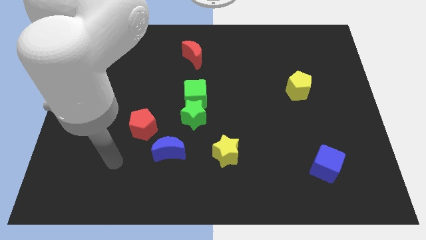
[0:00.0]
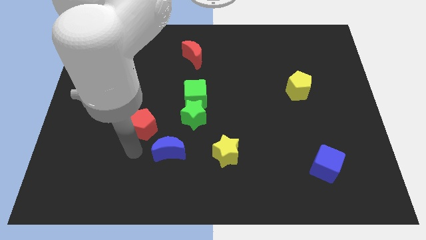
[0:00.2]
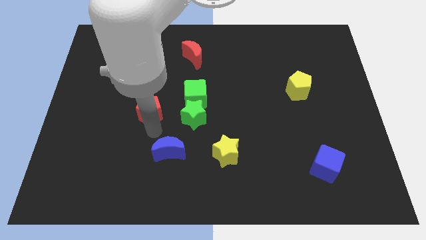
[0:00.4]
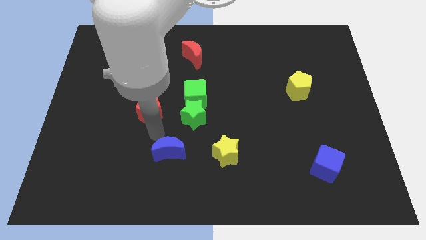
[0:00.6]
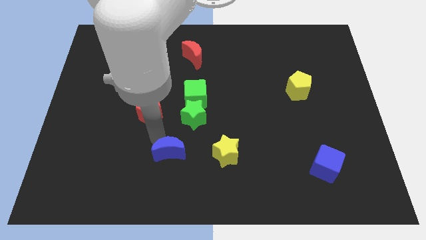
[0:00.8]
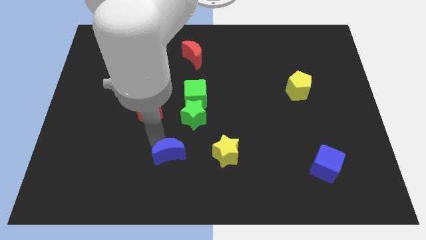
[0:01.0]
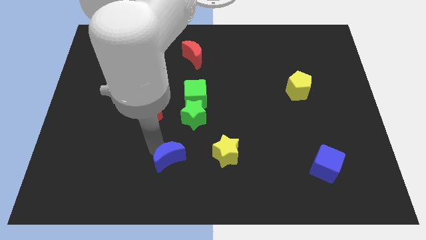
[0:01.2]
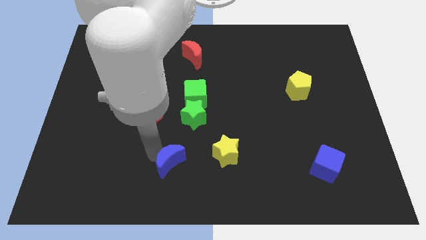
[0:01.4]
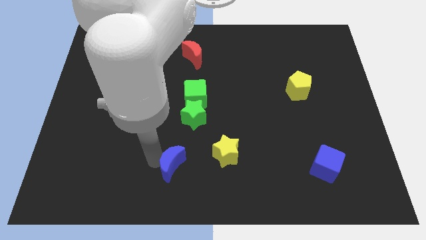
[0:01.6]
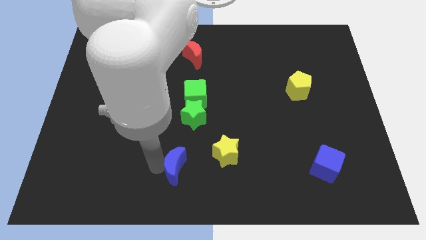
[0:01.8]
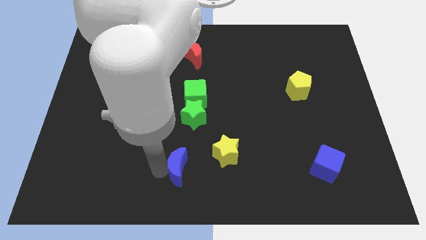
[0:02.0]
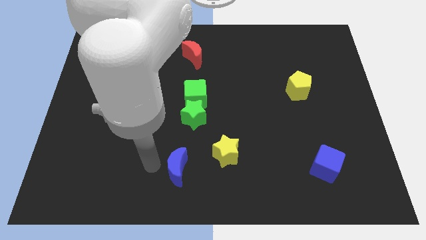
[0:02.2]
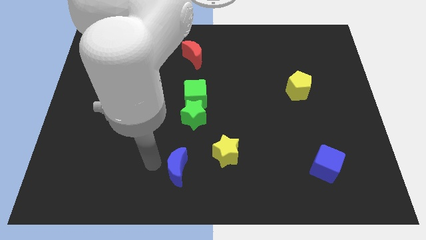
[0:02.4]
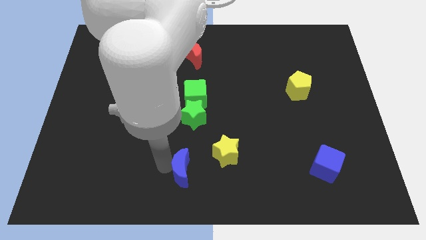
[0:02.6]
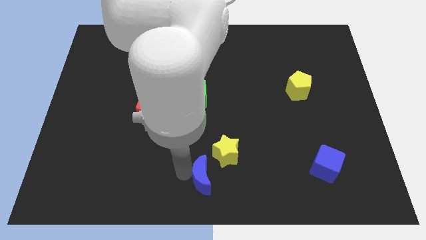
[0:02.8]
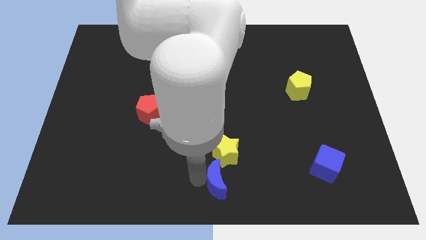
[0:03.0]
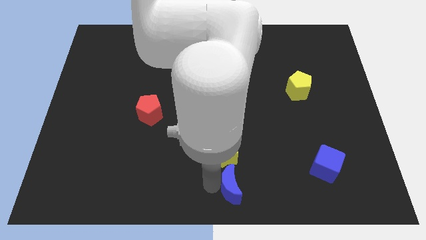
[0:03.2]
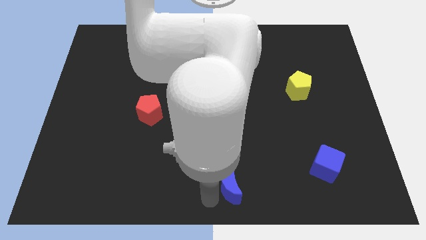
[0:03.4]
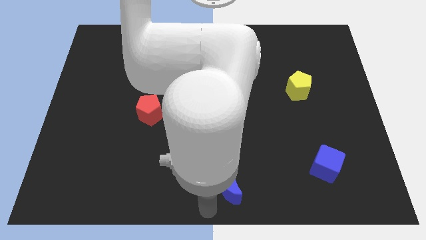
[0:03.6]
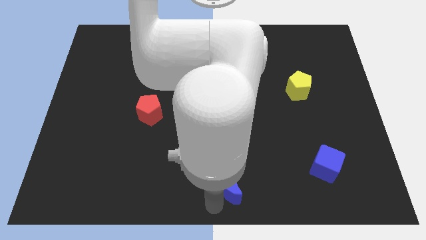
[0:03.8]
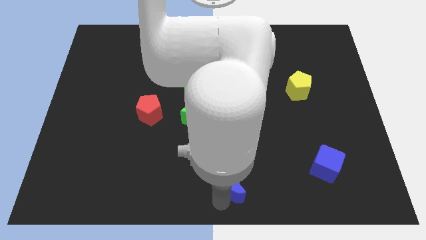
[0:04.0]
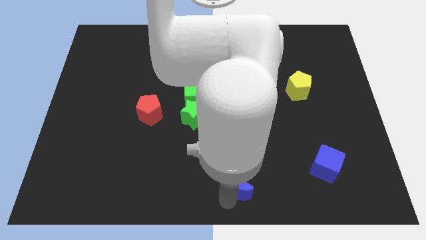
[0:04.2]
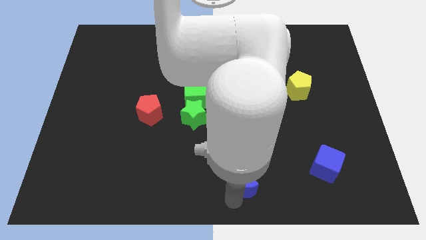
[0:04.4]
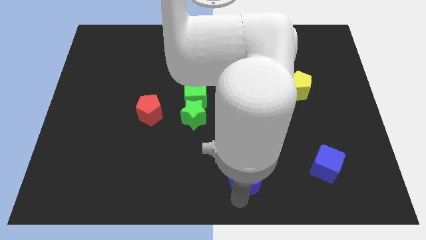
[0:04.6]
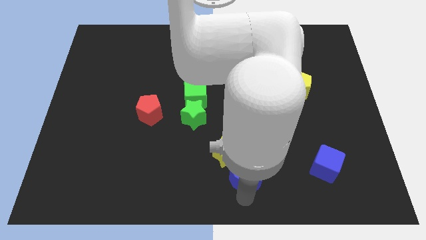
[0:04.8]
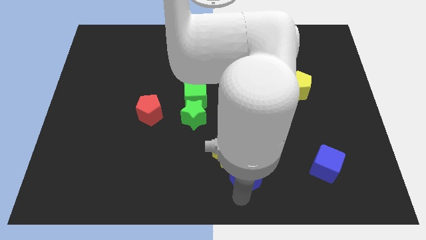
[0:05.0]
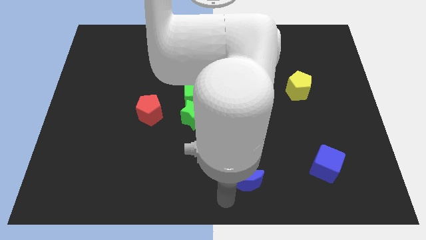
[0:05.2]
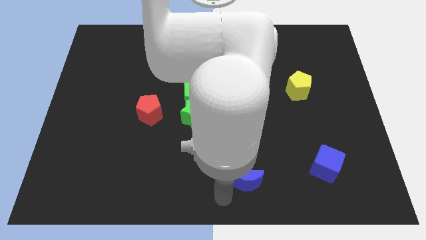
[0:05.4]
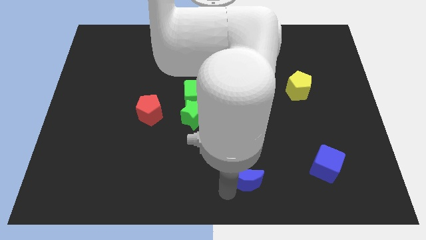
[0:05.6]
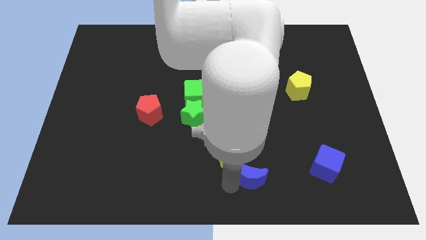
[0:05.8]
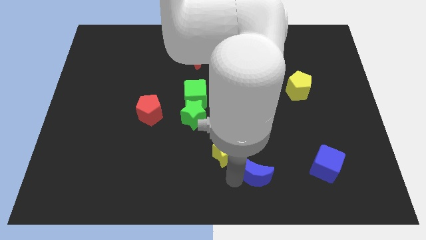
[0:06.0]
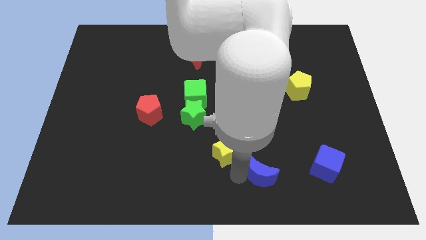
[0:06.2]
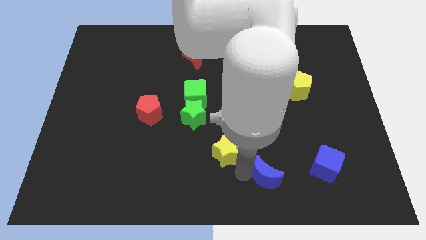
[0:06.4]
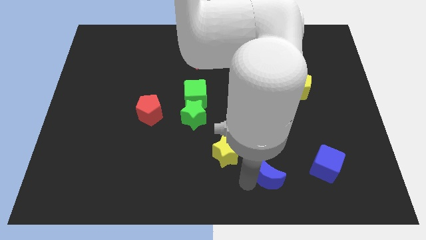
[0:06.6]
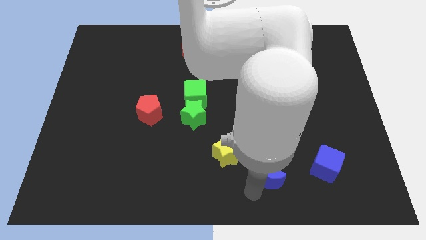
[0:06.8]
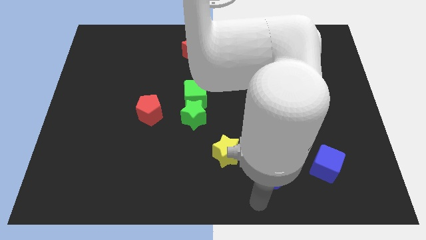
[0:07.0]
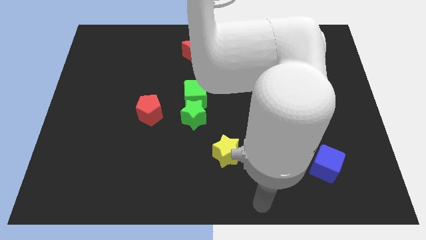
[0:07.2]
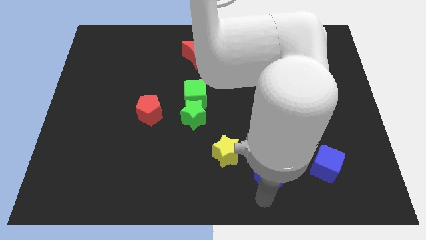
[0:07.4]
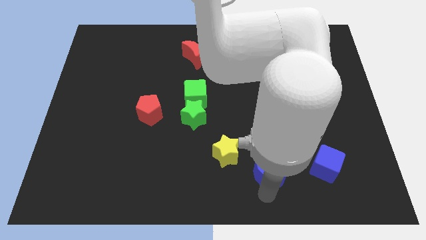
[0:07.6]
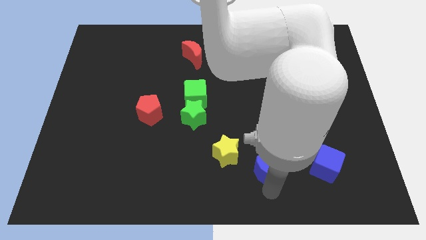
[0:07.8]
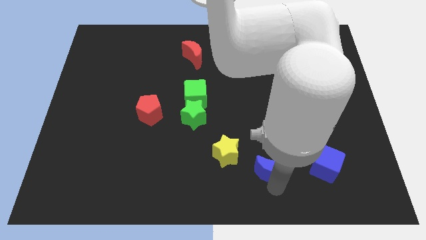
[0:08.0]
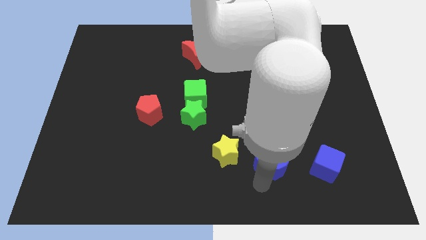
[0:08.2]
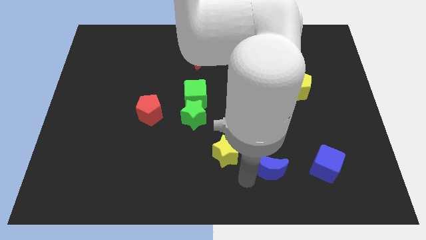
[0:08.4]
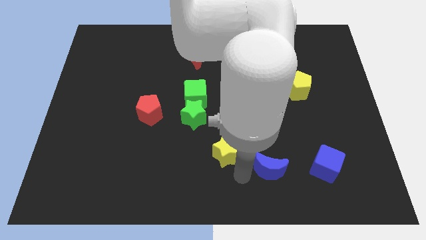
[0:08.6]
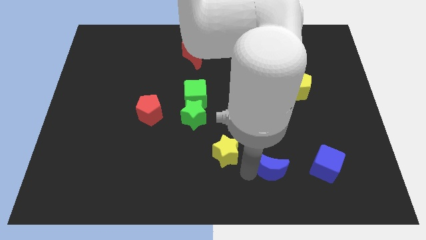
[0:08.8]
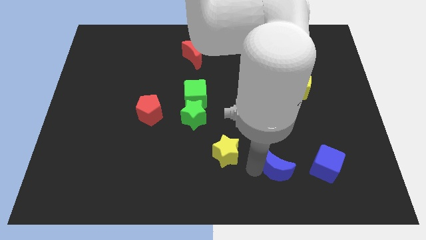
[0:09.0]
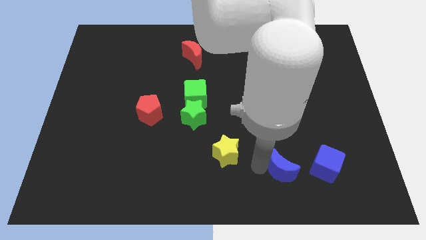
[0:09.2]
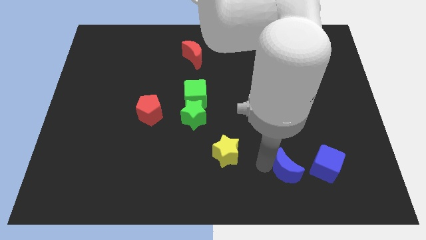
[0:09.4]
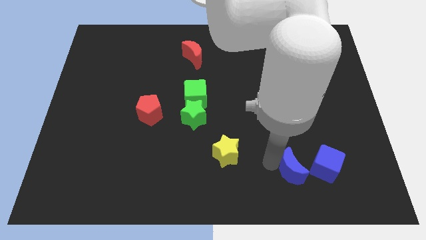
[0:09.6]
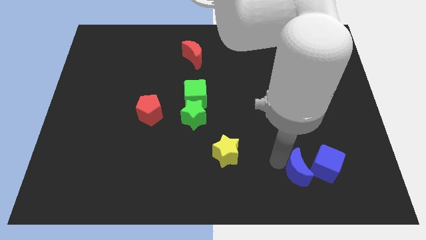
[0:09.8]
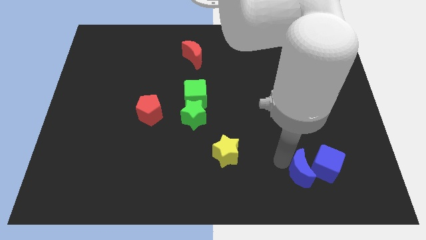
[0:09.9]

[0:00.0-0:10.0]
move the blue moon close to the blue cube

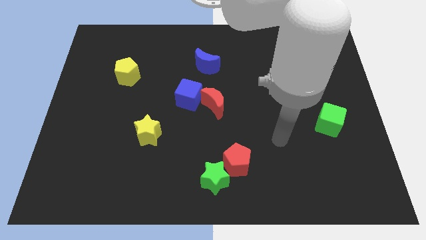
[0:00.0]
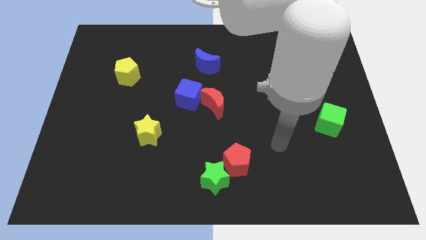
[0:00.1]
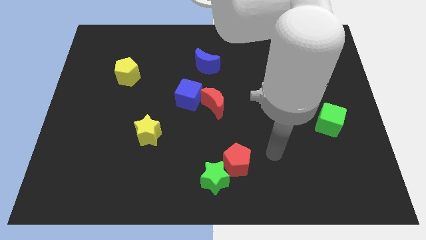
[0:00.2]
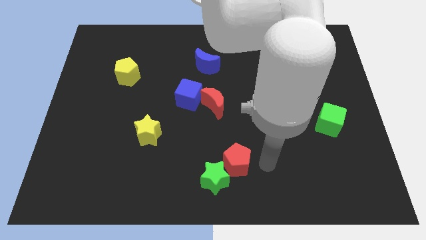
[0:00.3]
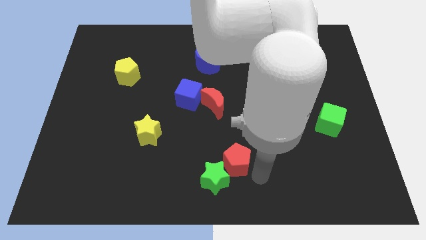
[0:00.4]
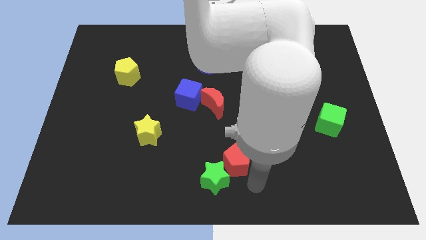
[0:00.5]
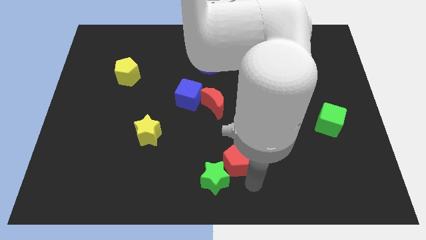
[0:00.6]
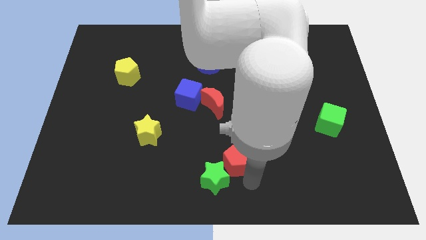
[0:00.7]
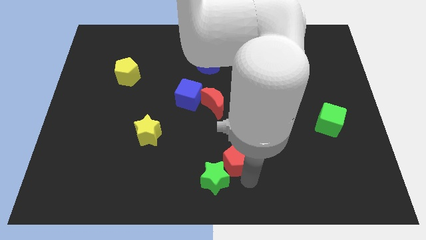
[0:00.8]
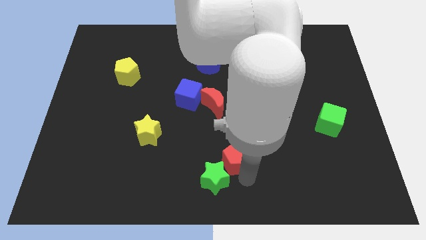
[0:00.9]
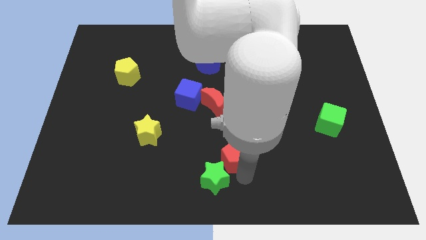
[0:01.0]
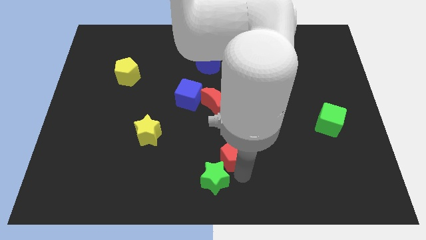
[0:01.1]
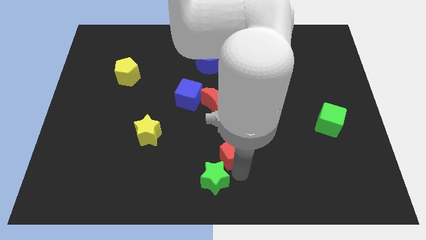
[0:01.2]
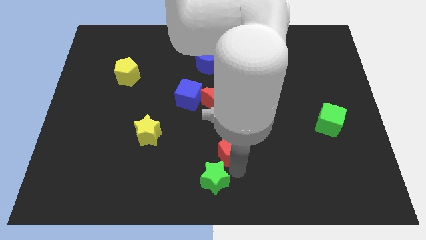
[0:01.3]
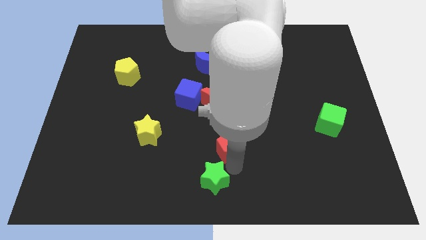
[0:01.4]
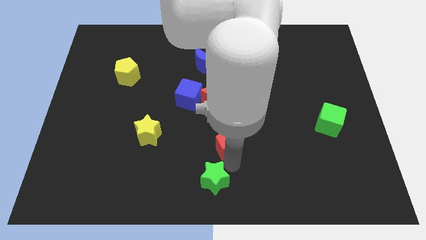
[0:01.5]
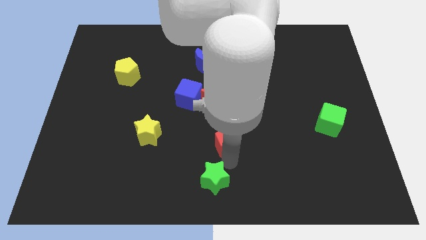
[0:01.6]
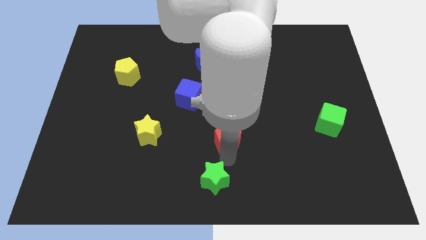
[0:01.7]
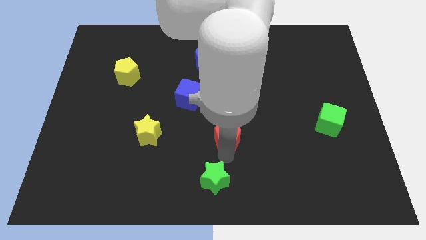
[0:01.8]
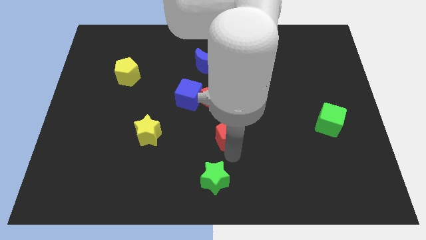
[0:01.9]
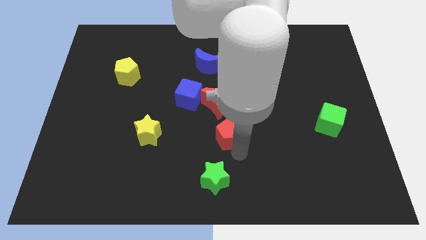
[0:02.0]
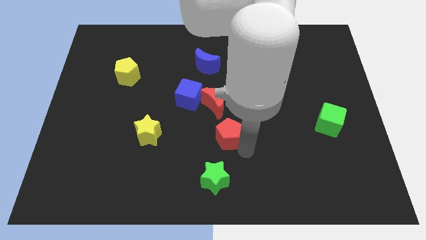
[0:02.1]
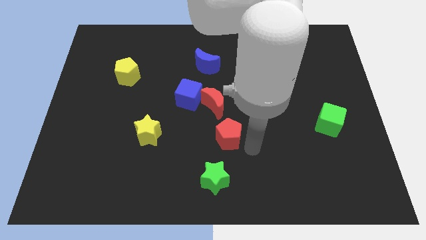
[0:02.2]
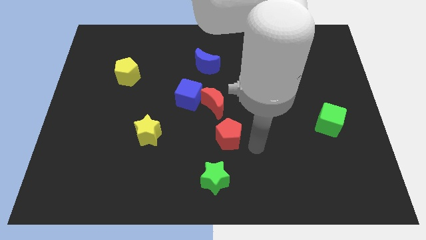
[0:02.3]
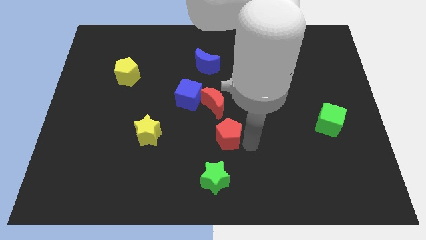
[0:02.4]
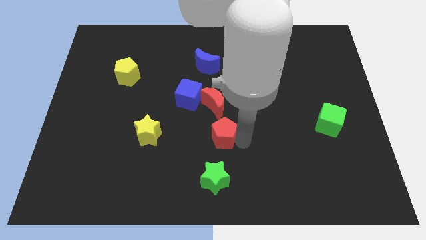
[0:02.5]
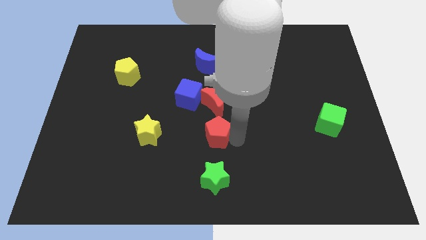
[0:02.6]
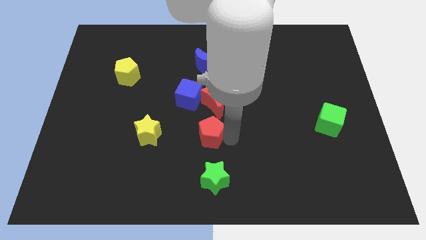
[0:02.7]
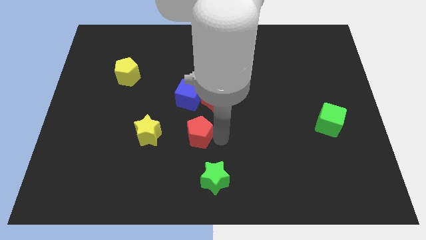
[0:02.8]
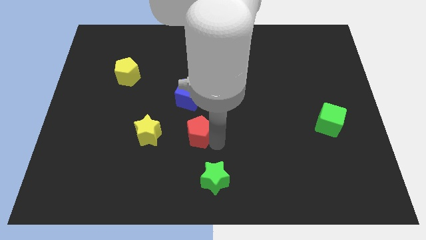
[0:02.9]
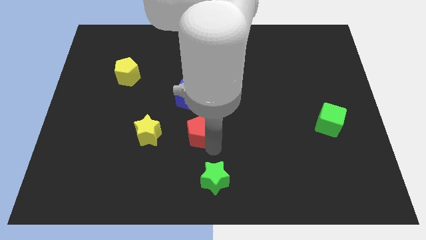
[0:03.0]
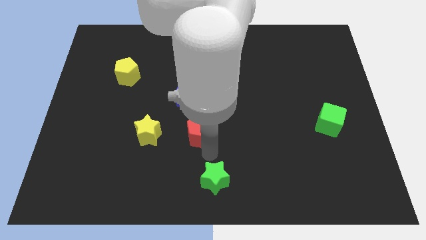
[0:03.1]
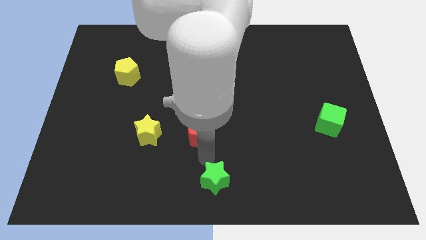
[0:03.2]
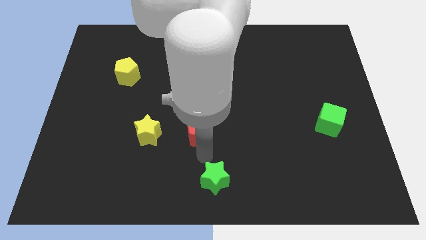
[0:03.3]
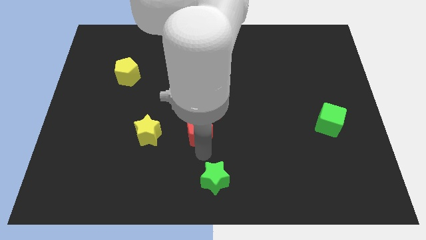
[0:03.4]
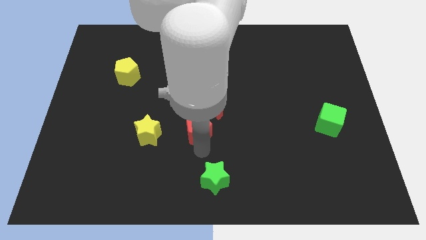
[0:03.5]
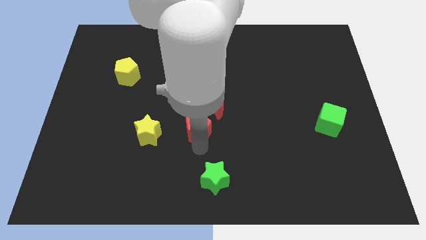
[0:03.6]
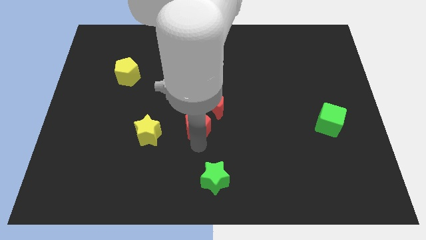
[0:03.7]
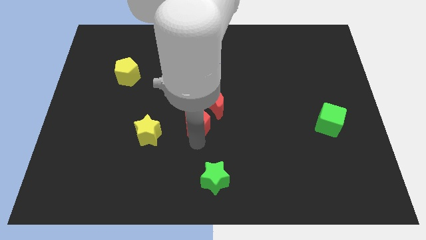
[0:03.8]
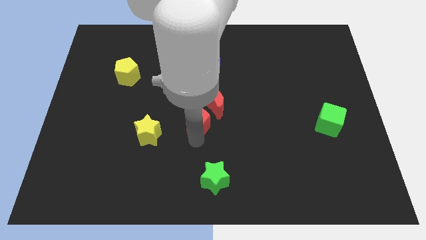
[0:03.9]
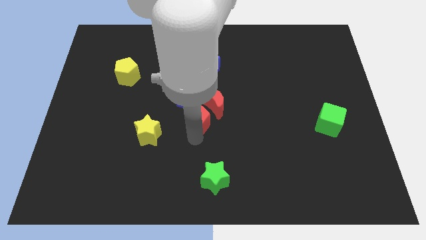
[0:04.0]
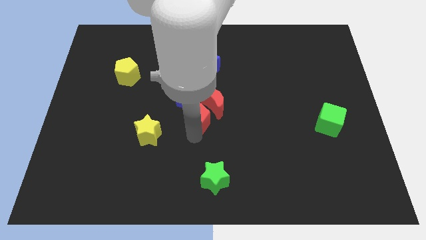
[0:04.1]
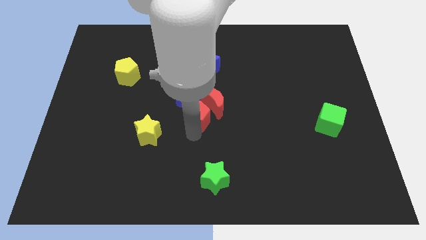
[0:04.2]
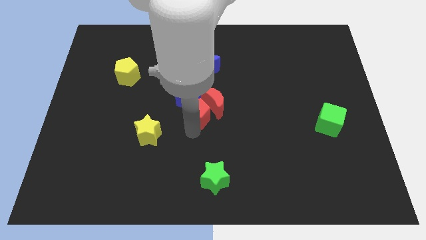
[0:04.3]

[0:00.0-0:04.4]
push the red pentagon towards the blue cube
